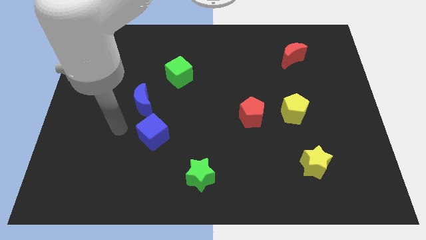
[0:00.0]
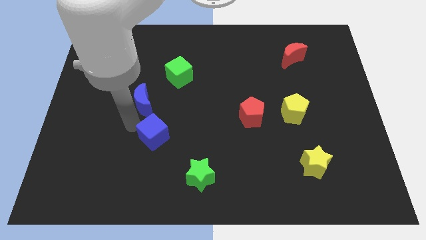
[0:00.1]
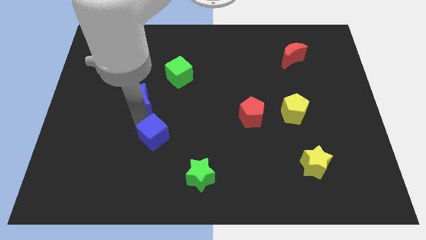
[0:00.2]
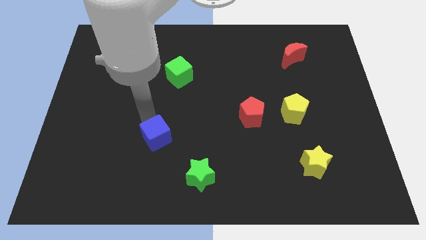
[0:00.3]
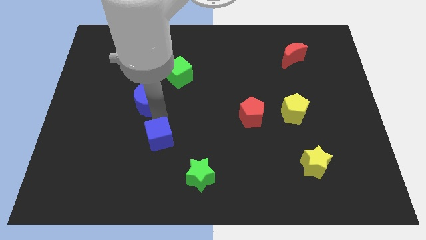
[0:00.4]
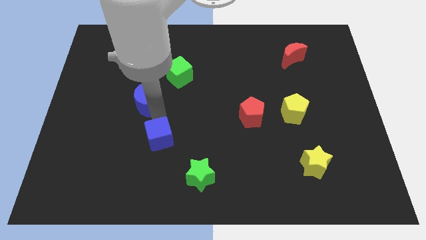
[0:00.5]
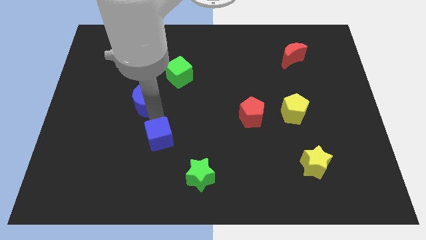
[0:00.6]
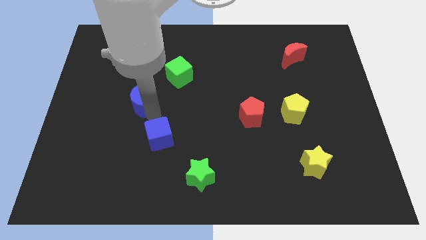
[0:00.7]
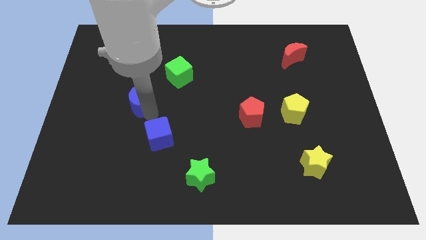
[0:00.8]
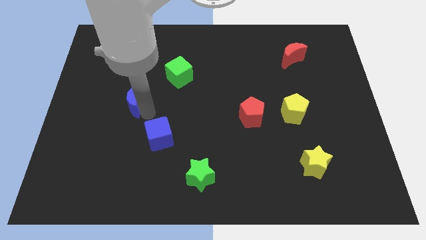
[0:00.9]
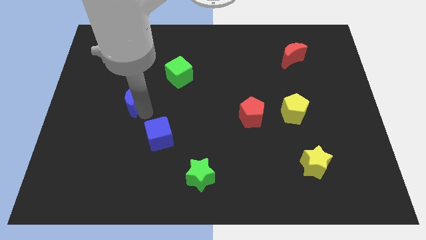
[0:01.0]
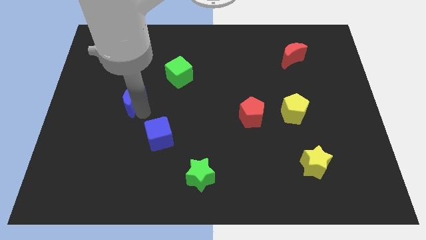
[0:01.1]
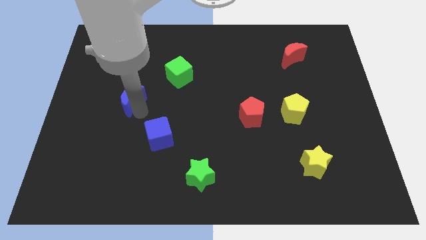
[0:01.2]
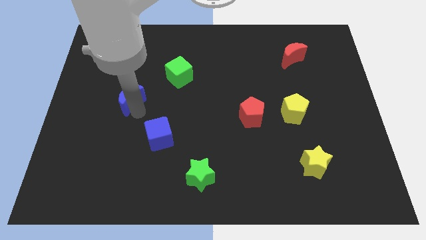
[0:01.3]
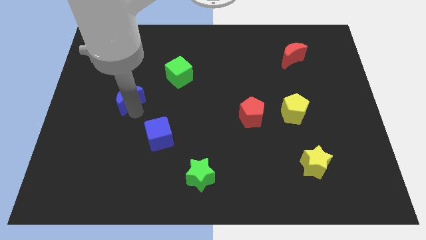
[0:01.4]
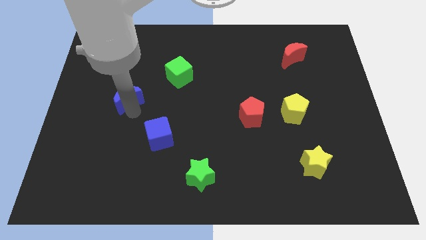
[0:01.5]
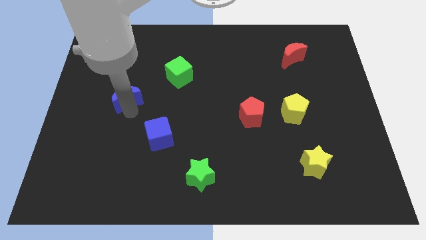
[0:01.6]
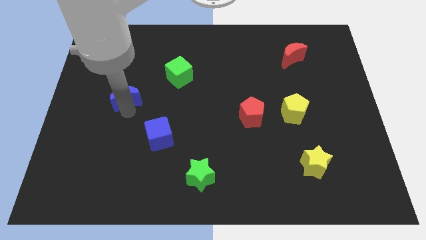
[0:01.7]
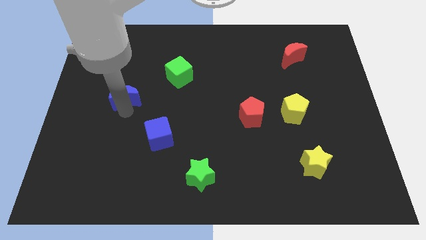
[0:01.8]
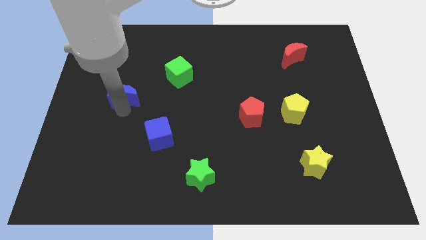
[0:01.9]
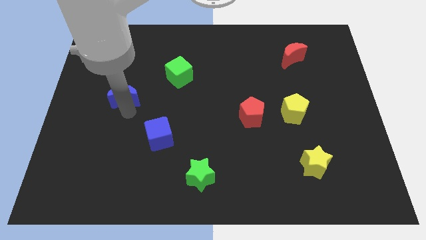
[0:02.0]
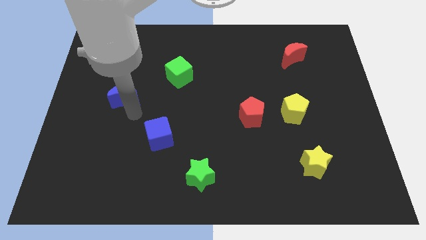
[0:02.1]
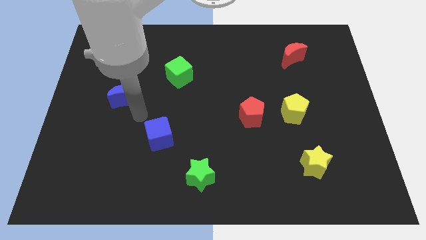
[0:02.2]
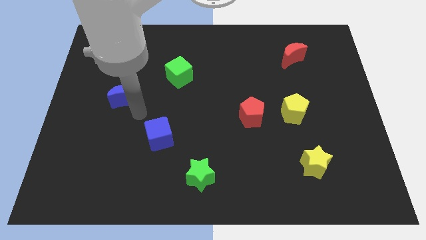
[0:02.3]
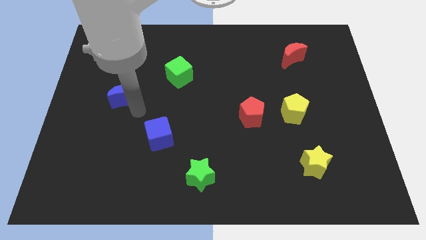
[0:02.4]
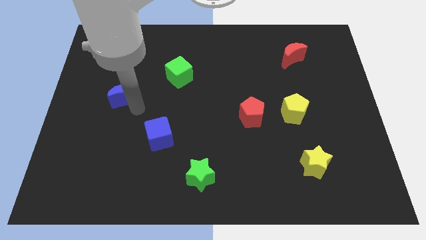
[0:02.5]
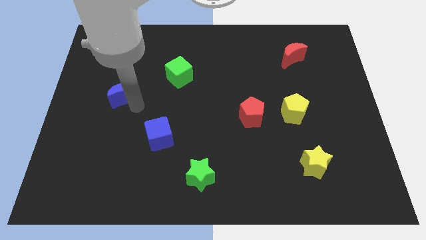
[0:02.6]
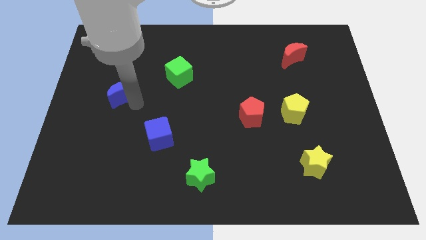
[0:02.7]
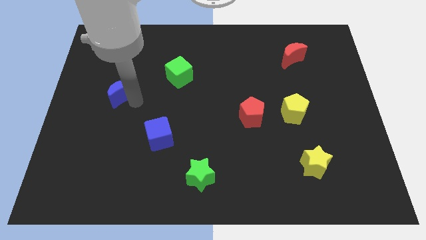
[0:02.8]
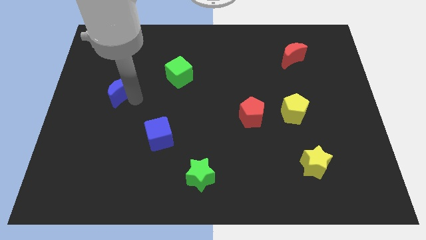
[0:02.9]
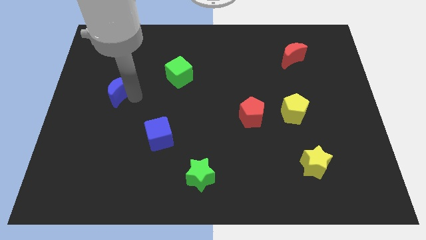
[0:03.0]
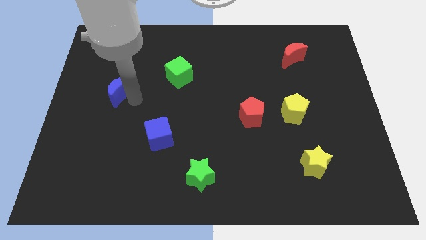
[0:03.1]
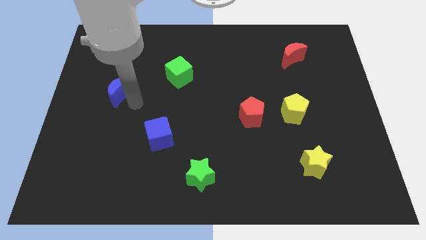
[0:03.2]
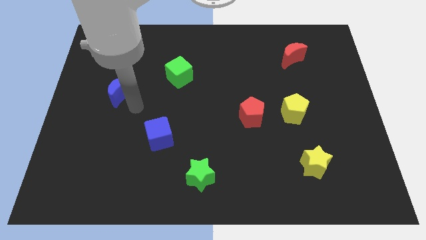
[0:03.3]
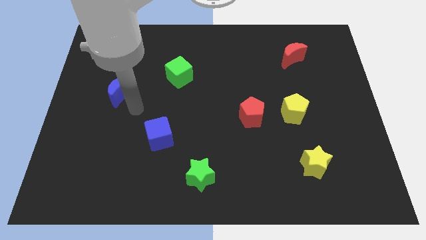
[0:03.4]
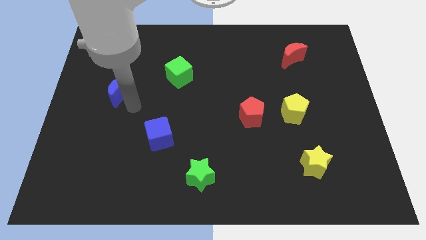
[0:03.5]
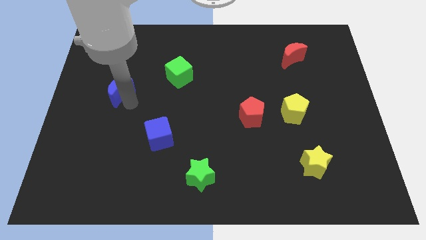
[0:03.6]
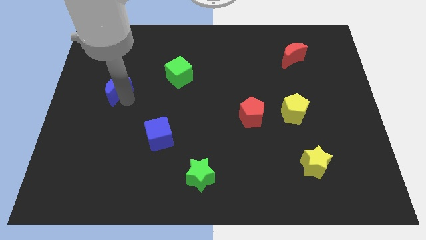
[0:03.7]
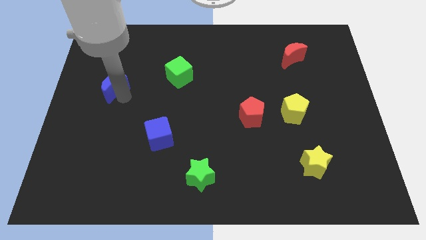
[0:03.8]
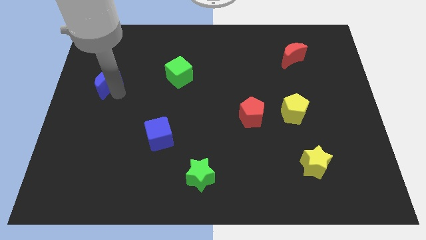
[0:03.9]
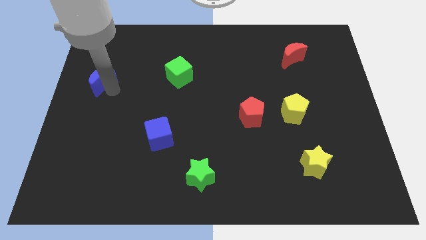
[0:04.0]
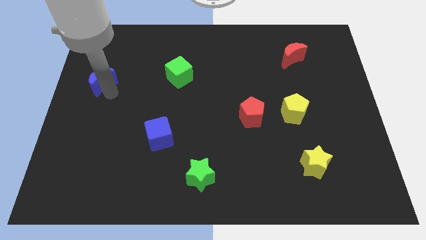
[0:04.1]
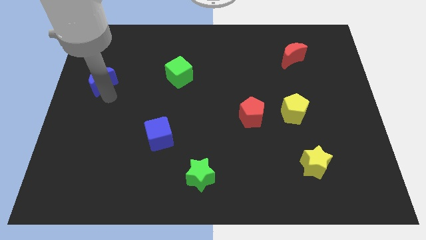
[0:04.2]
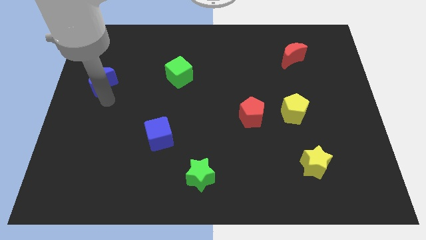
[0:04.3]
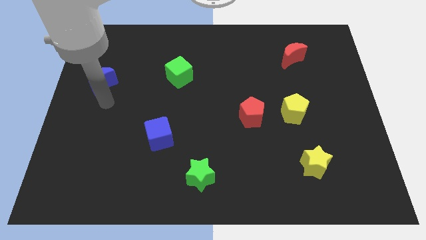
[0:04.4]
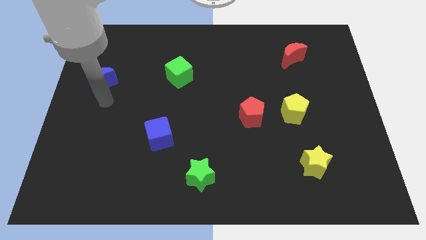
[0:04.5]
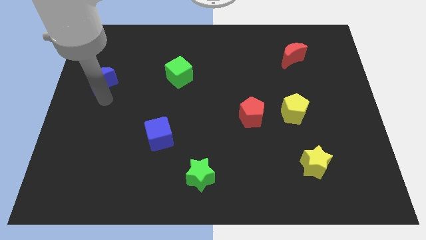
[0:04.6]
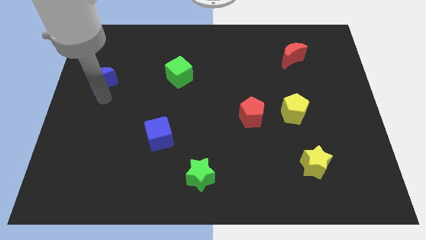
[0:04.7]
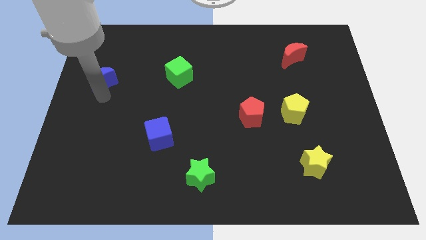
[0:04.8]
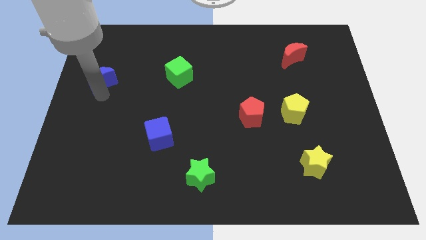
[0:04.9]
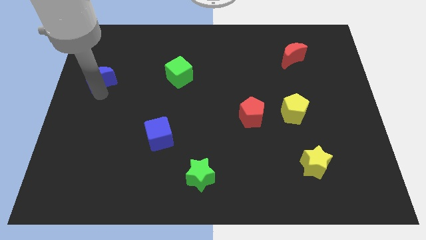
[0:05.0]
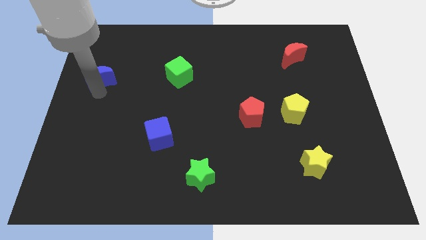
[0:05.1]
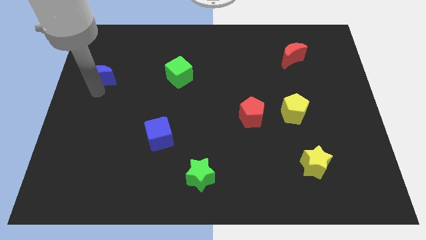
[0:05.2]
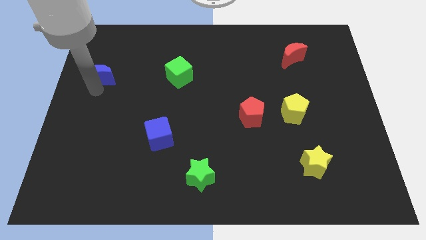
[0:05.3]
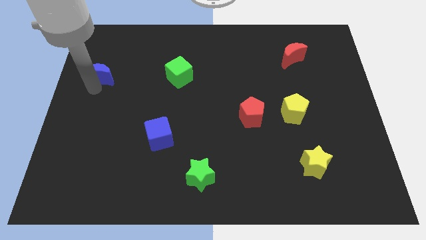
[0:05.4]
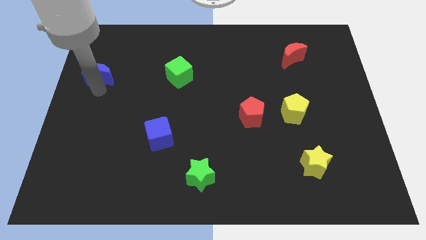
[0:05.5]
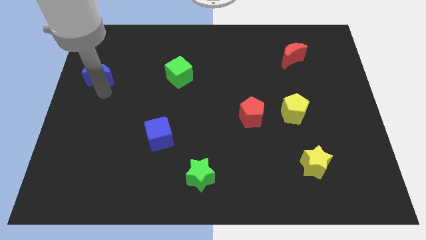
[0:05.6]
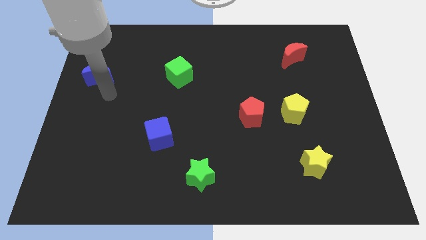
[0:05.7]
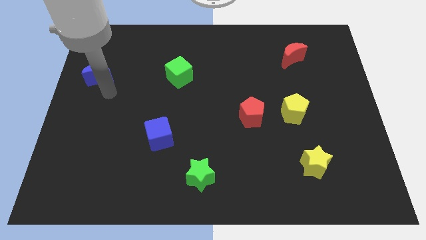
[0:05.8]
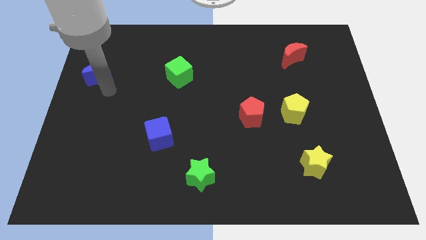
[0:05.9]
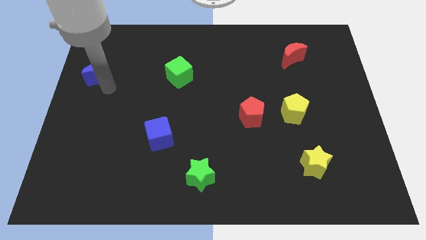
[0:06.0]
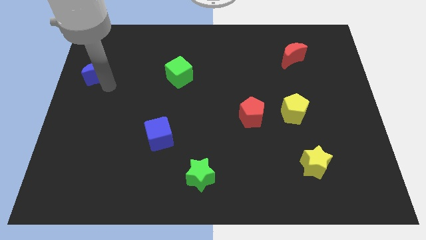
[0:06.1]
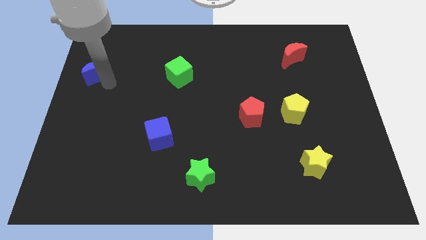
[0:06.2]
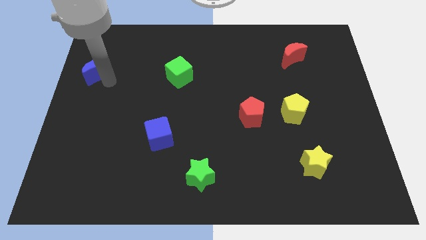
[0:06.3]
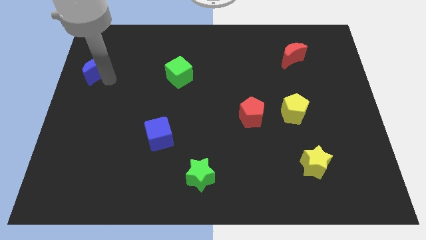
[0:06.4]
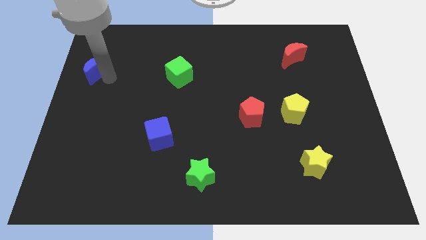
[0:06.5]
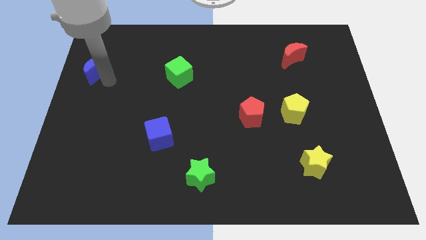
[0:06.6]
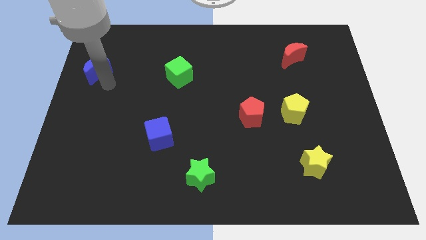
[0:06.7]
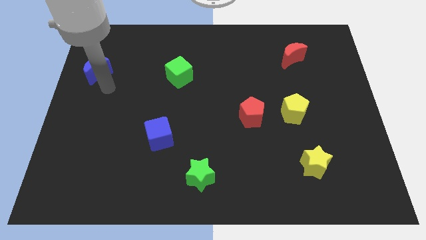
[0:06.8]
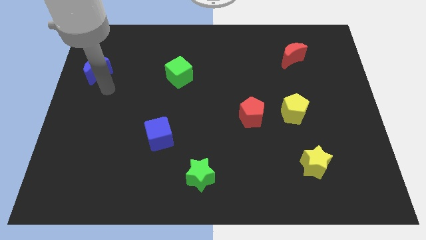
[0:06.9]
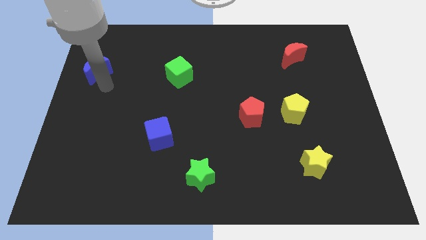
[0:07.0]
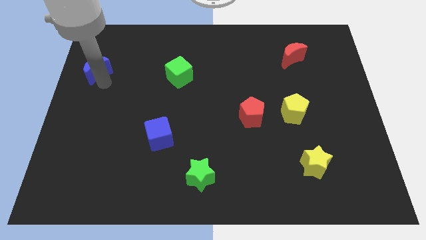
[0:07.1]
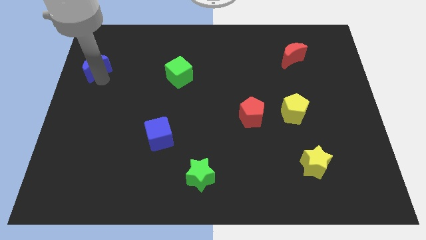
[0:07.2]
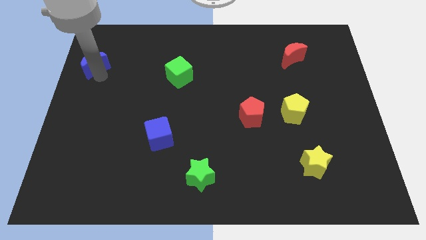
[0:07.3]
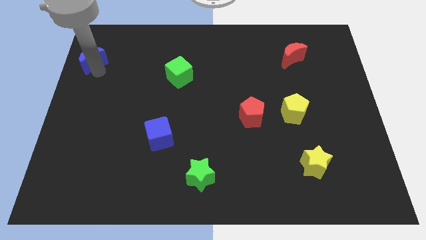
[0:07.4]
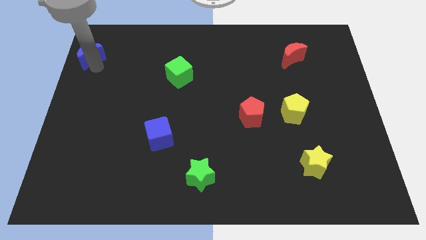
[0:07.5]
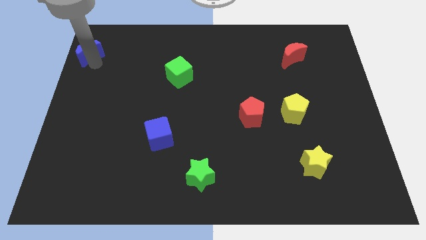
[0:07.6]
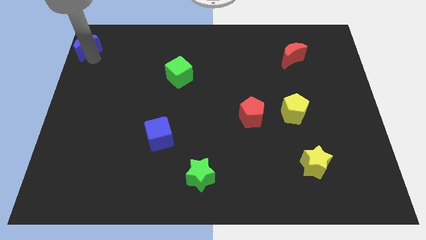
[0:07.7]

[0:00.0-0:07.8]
put the blue moon to the top left of the board
